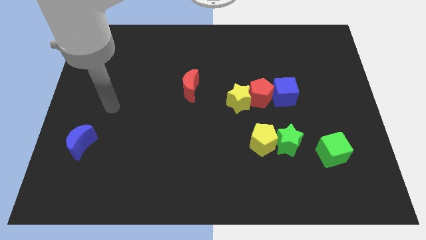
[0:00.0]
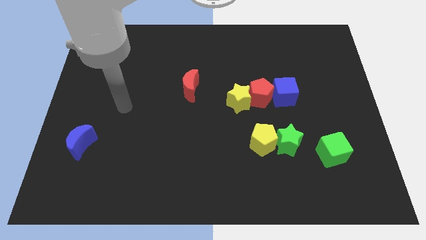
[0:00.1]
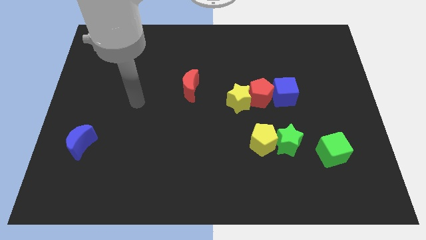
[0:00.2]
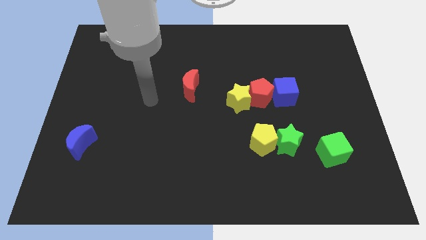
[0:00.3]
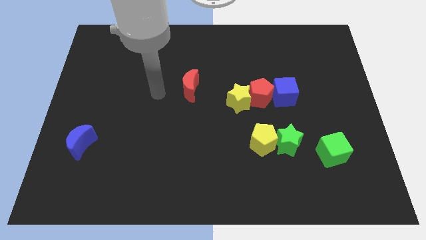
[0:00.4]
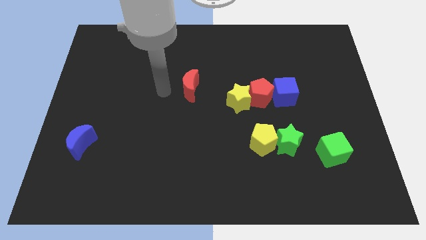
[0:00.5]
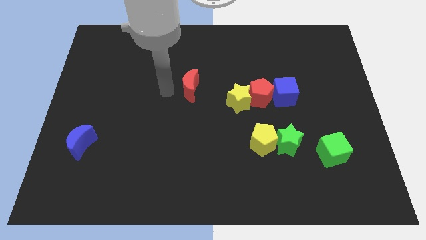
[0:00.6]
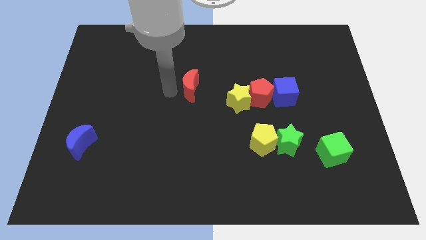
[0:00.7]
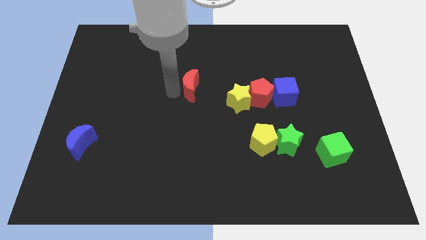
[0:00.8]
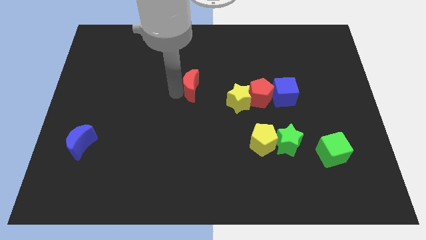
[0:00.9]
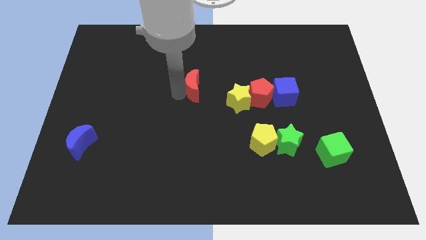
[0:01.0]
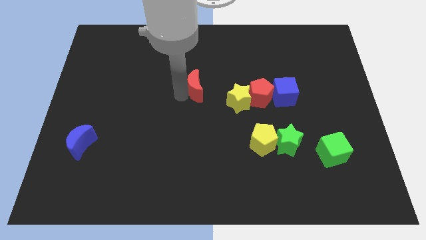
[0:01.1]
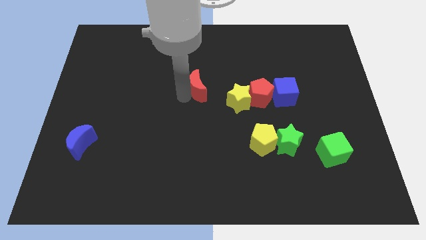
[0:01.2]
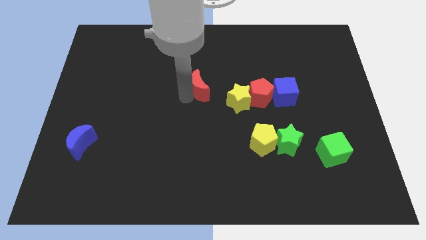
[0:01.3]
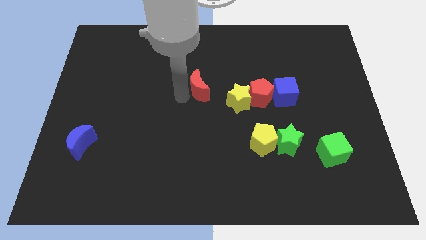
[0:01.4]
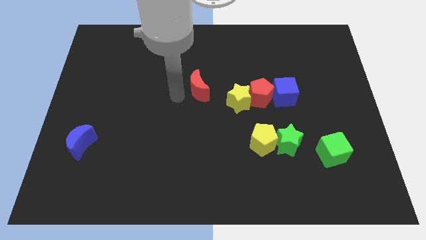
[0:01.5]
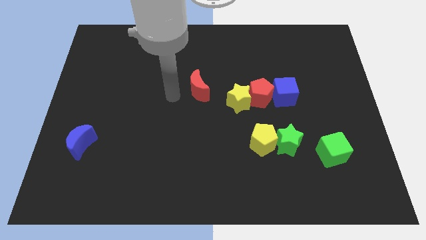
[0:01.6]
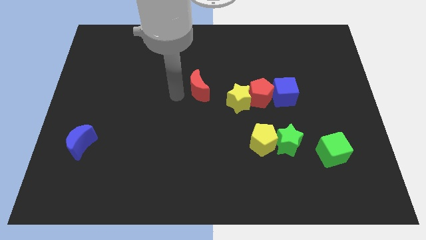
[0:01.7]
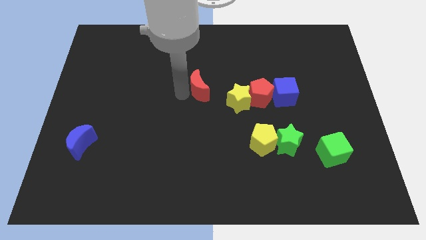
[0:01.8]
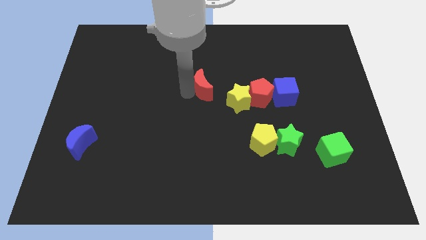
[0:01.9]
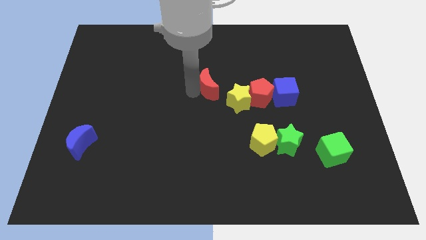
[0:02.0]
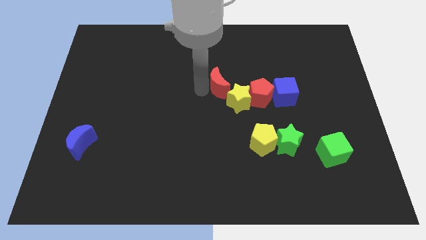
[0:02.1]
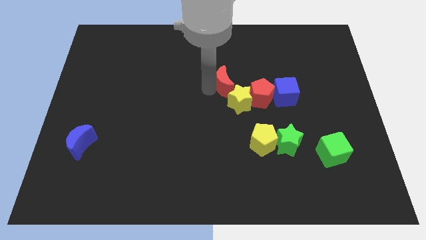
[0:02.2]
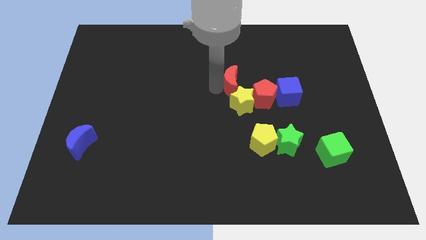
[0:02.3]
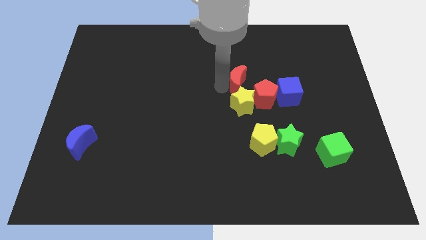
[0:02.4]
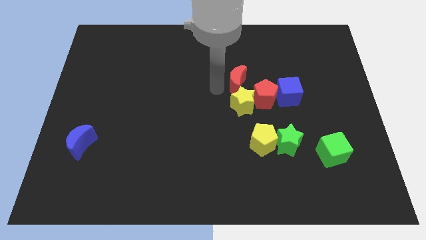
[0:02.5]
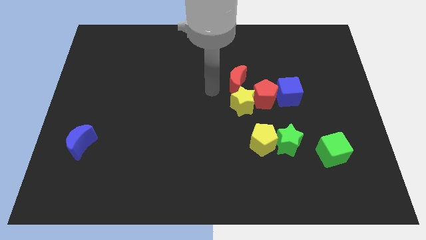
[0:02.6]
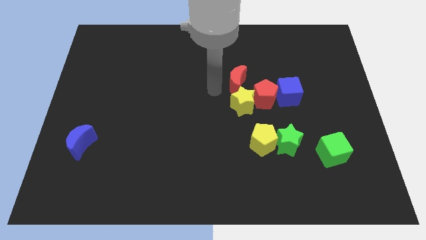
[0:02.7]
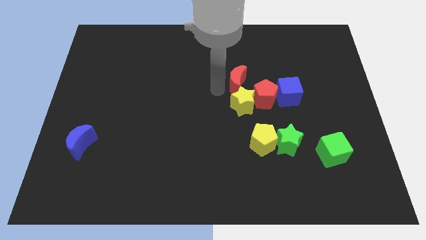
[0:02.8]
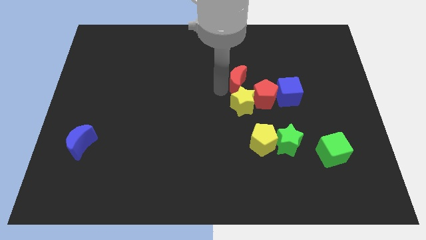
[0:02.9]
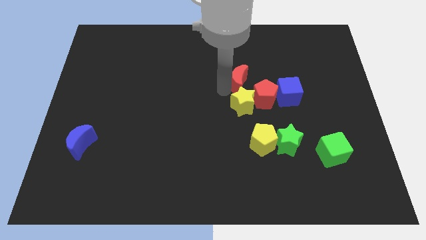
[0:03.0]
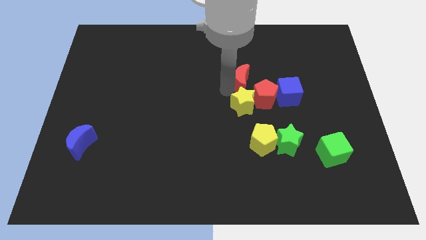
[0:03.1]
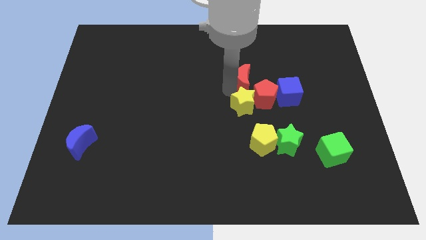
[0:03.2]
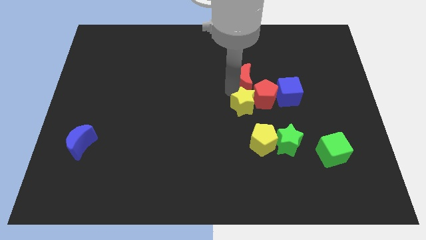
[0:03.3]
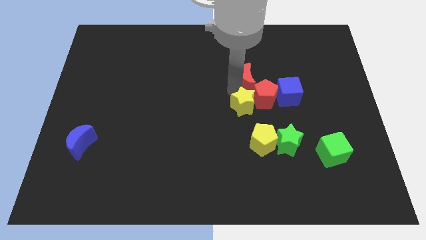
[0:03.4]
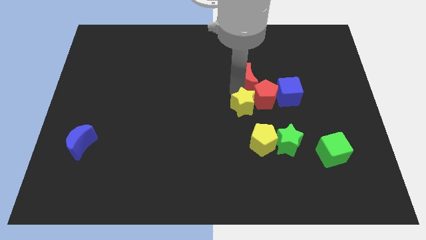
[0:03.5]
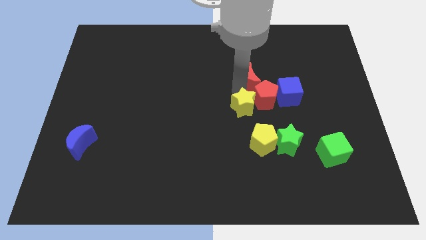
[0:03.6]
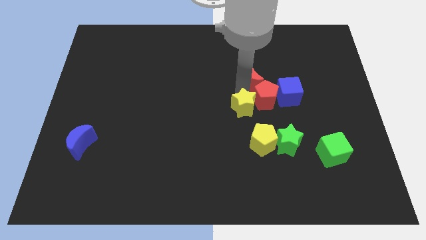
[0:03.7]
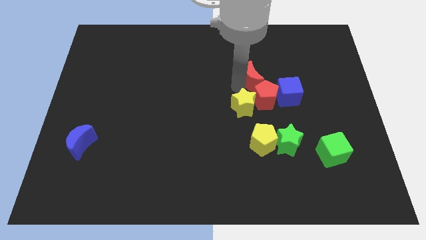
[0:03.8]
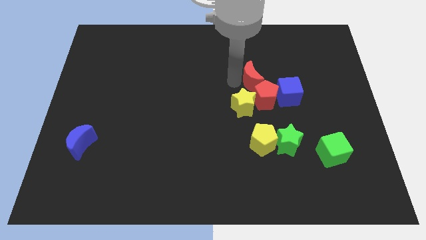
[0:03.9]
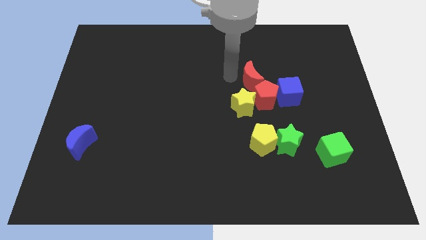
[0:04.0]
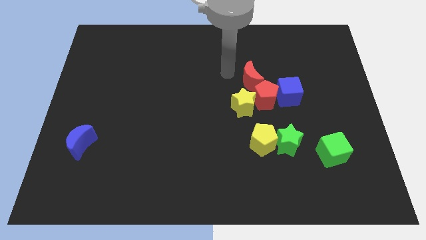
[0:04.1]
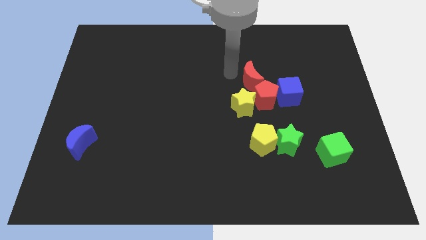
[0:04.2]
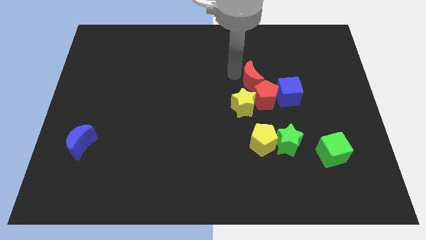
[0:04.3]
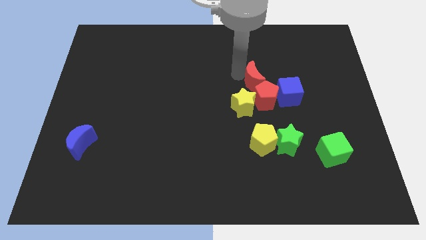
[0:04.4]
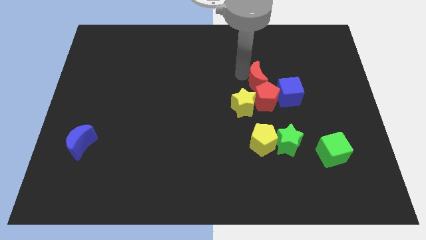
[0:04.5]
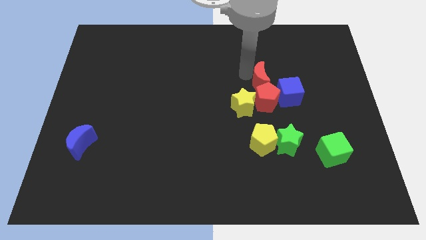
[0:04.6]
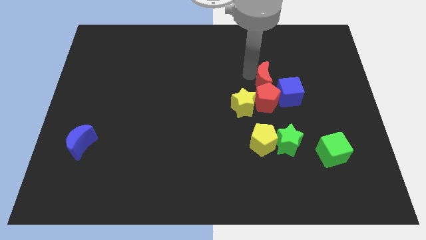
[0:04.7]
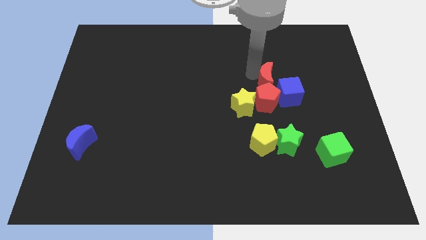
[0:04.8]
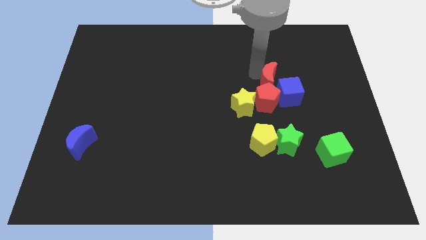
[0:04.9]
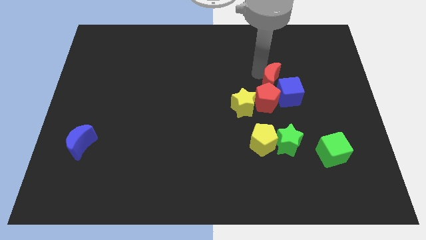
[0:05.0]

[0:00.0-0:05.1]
push the red moon to the blue cube

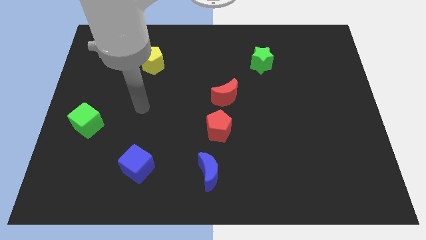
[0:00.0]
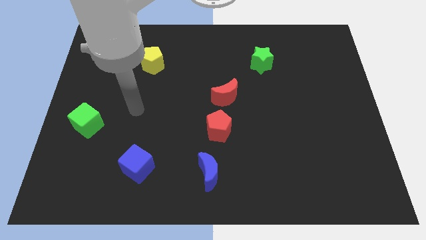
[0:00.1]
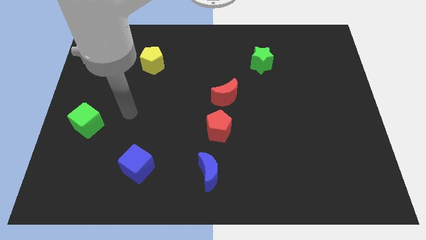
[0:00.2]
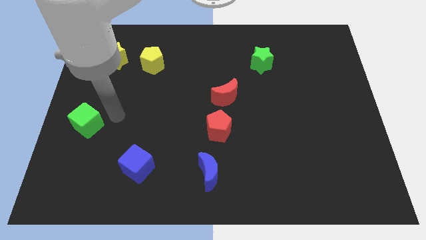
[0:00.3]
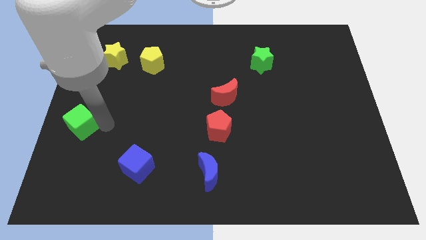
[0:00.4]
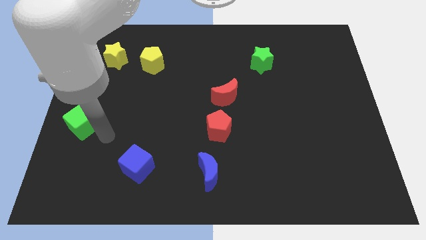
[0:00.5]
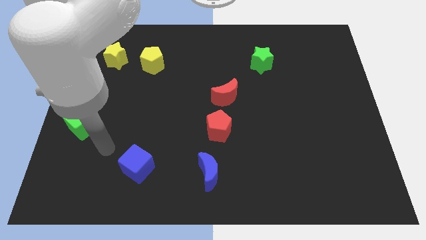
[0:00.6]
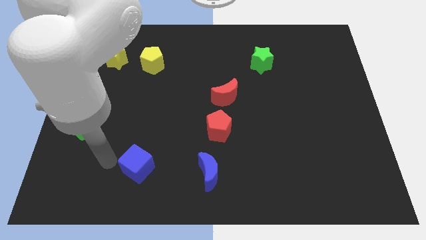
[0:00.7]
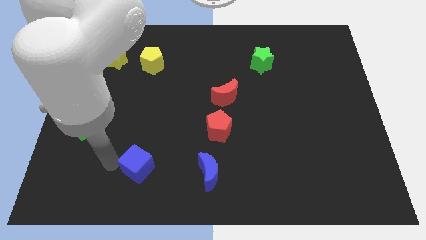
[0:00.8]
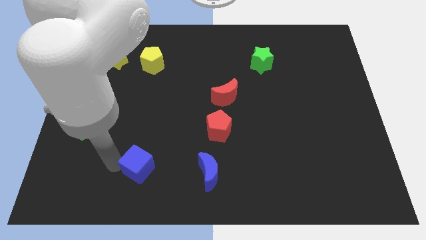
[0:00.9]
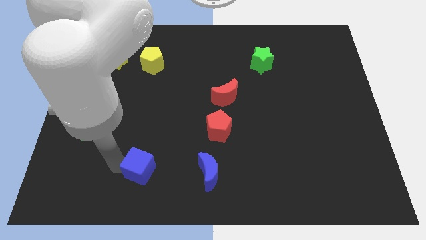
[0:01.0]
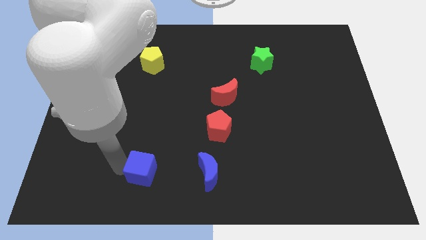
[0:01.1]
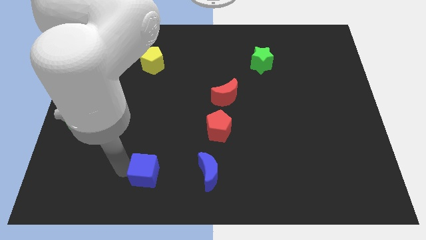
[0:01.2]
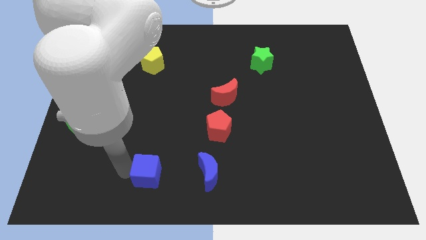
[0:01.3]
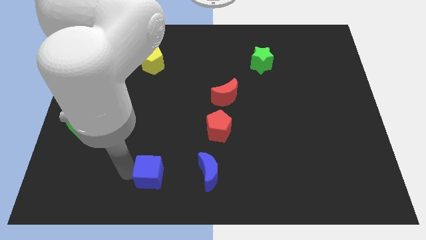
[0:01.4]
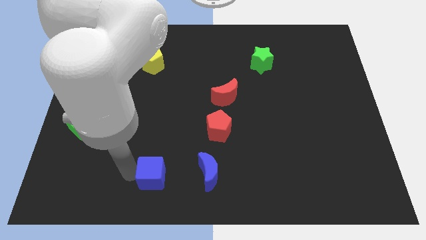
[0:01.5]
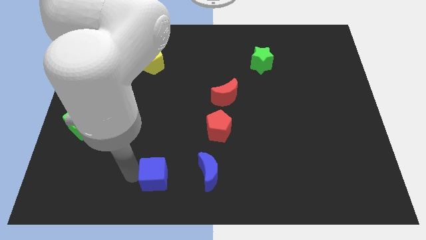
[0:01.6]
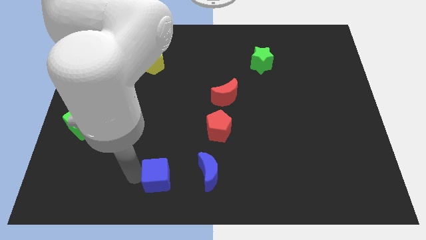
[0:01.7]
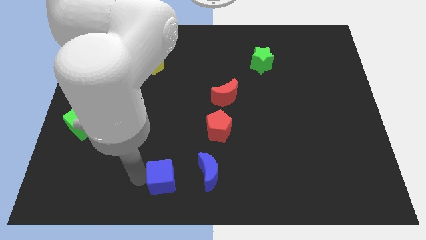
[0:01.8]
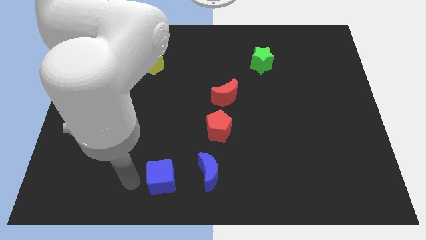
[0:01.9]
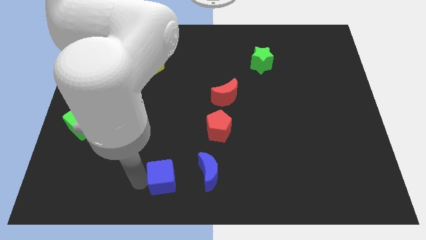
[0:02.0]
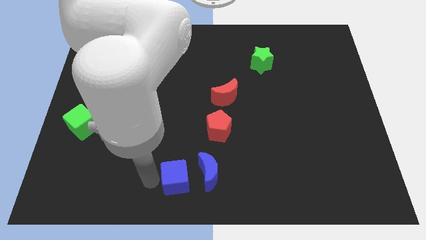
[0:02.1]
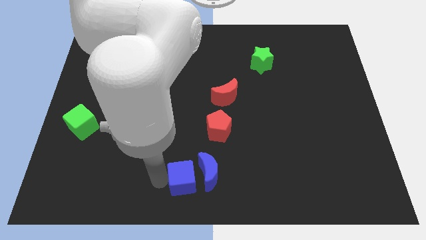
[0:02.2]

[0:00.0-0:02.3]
put the blue cube towards the blue moon
